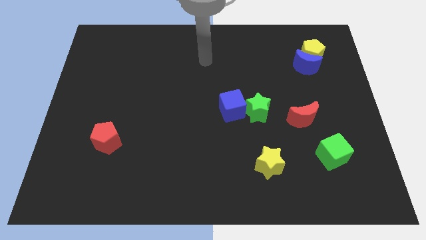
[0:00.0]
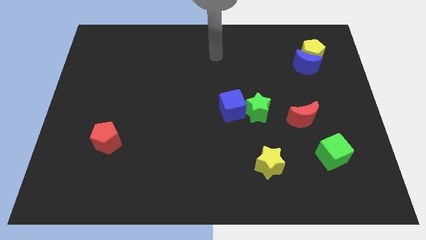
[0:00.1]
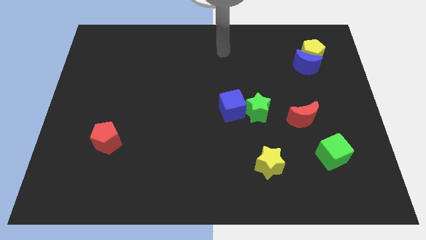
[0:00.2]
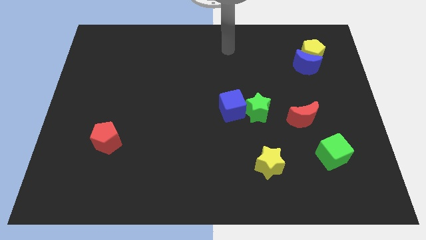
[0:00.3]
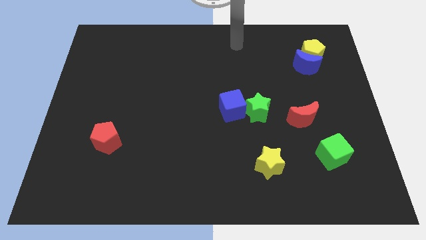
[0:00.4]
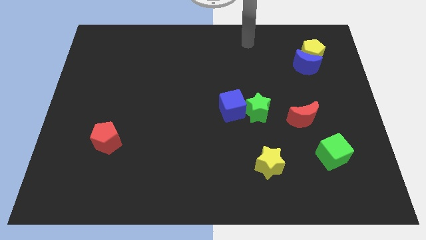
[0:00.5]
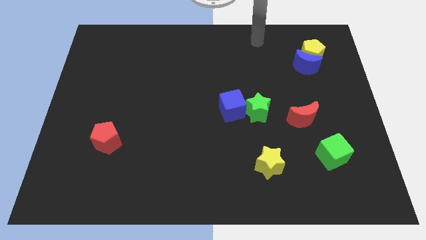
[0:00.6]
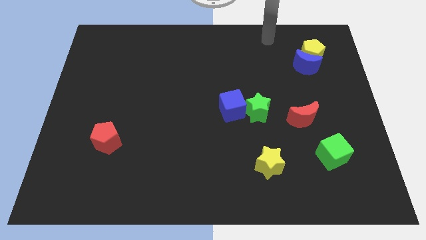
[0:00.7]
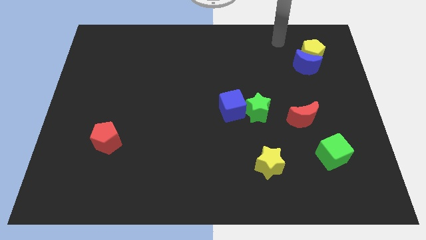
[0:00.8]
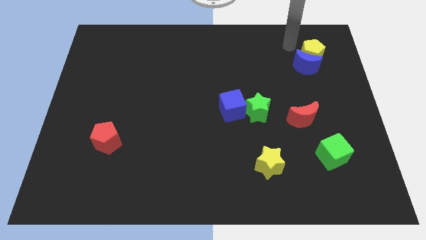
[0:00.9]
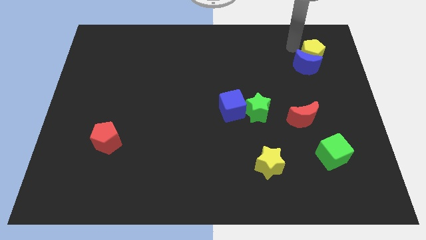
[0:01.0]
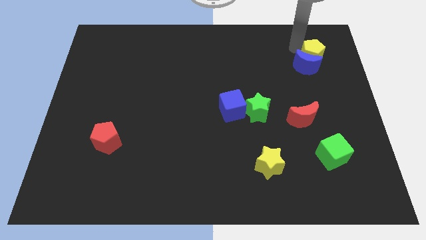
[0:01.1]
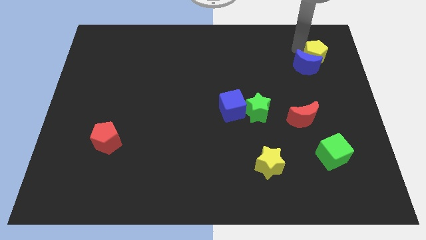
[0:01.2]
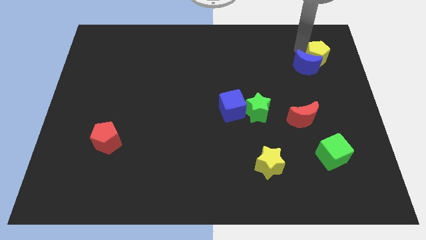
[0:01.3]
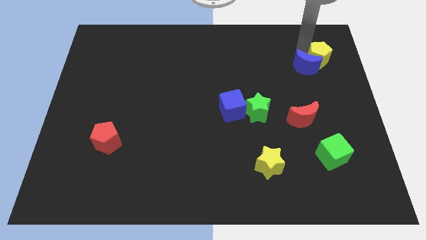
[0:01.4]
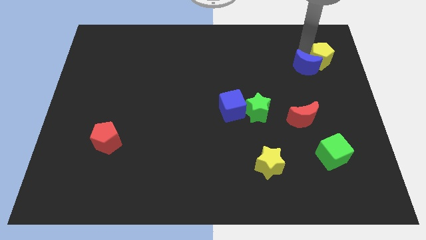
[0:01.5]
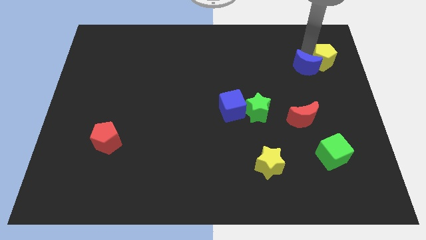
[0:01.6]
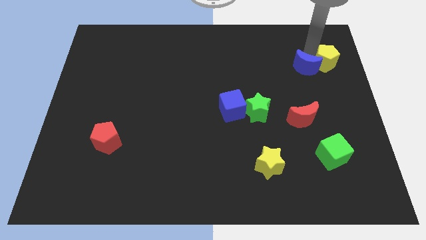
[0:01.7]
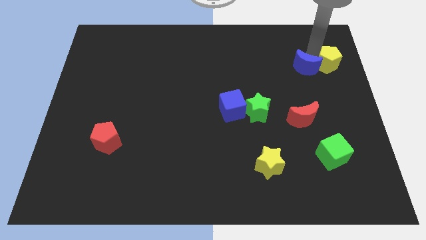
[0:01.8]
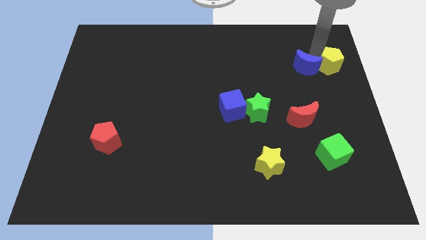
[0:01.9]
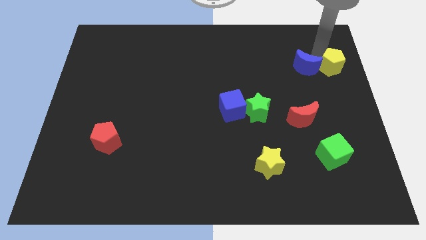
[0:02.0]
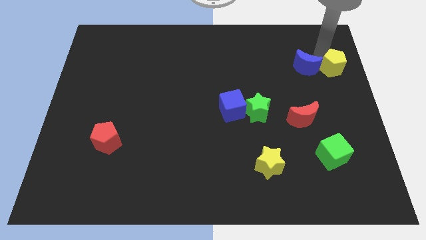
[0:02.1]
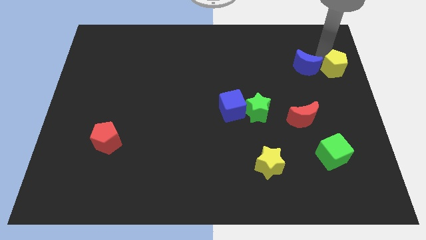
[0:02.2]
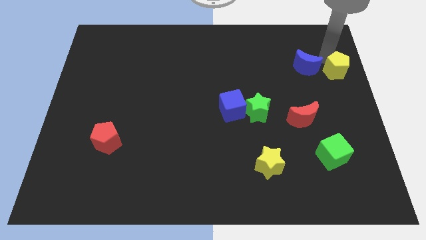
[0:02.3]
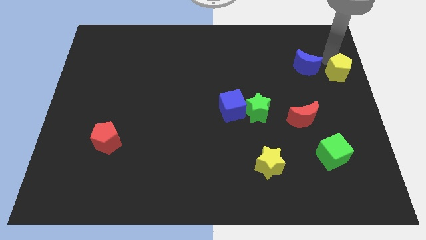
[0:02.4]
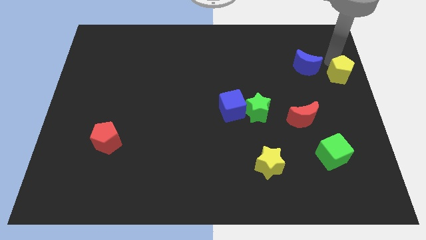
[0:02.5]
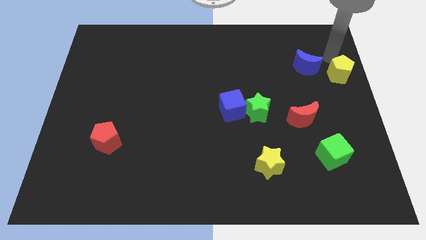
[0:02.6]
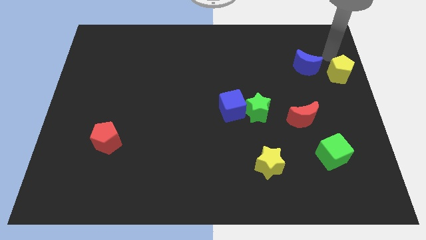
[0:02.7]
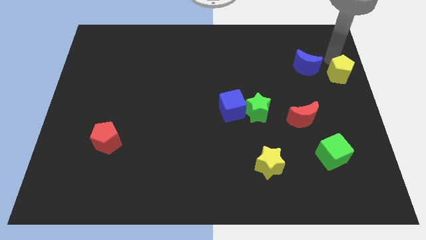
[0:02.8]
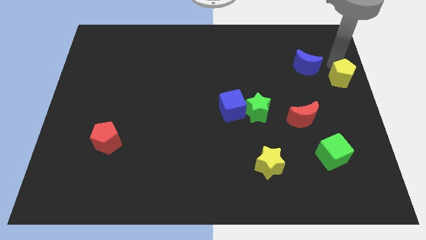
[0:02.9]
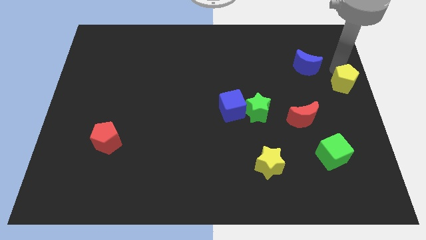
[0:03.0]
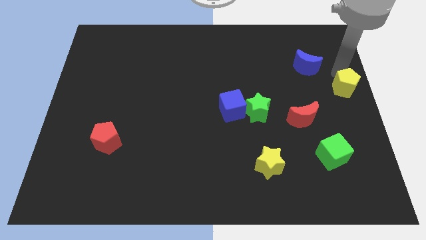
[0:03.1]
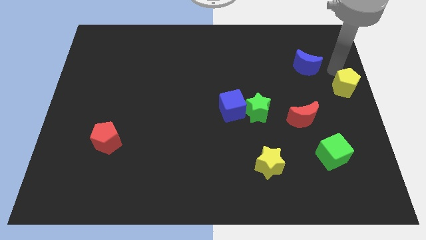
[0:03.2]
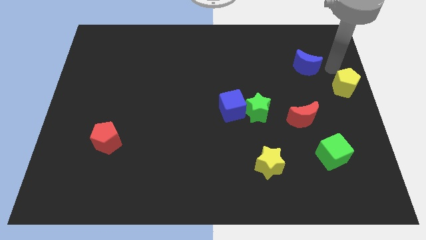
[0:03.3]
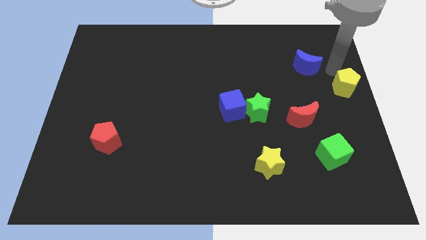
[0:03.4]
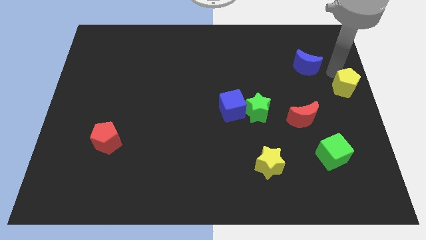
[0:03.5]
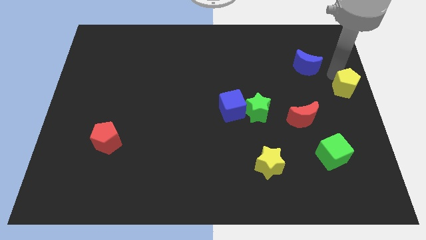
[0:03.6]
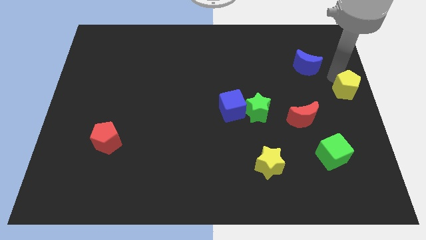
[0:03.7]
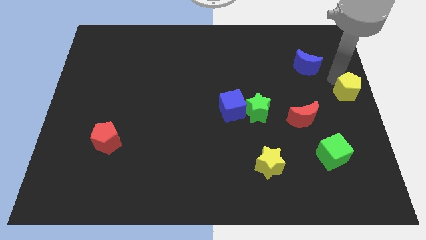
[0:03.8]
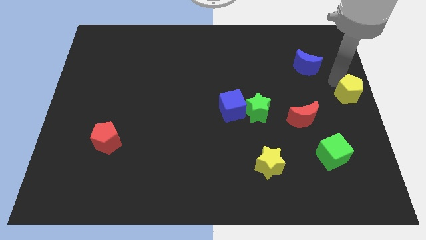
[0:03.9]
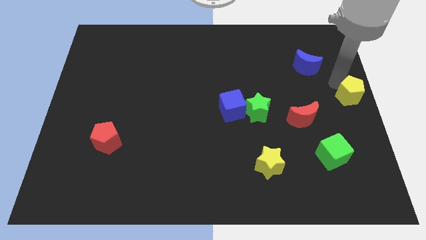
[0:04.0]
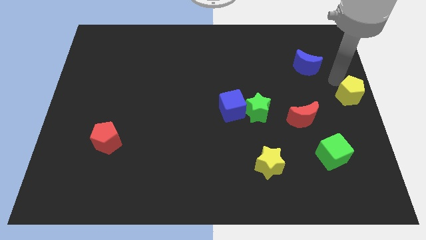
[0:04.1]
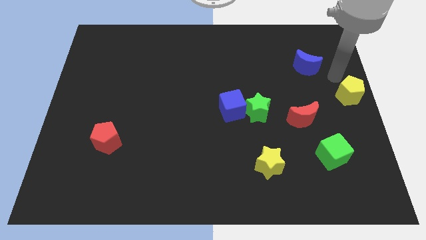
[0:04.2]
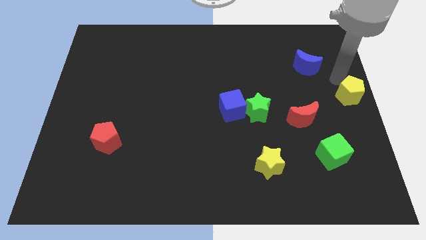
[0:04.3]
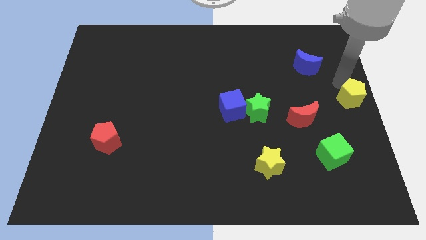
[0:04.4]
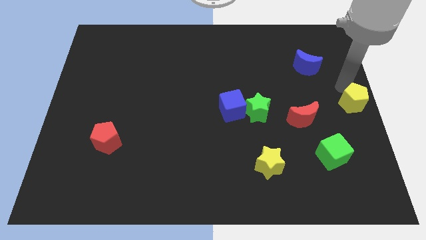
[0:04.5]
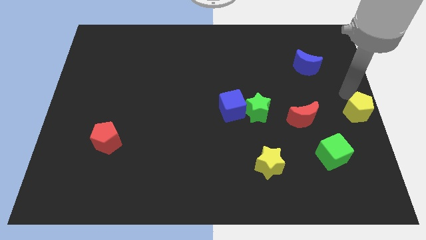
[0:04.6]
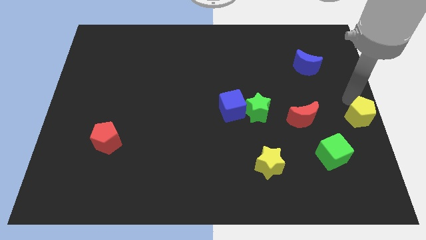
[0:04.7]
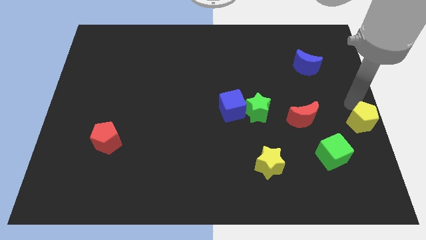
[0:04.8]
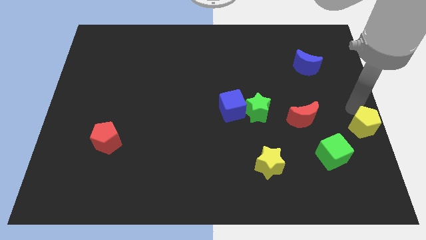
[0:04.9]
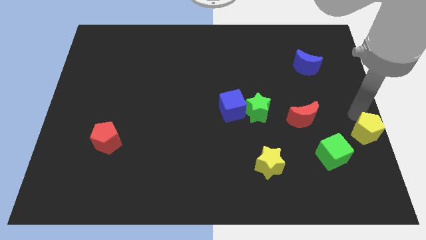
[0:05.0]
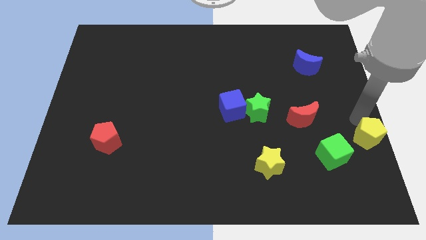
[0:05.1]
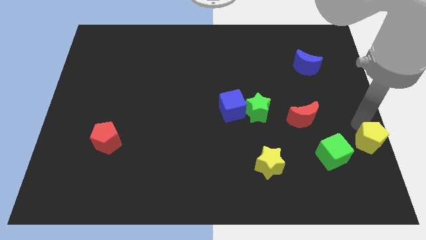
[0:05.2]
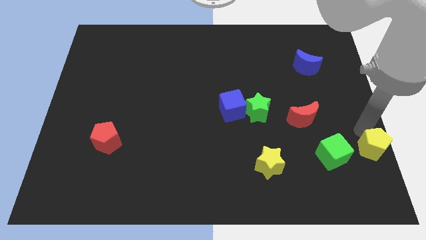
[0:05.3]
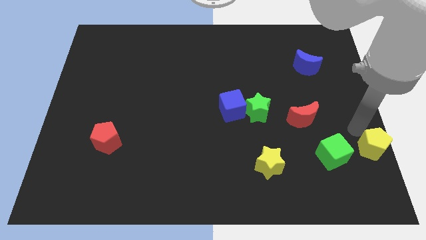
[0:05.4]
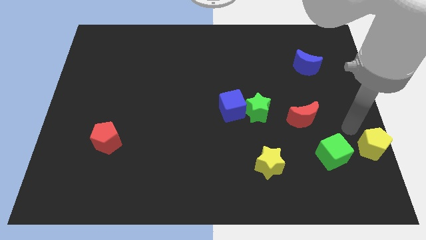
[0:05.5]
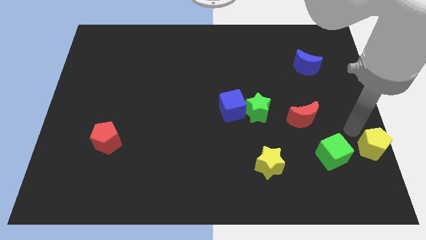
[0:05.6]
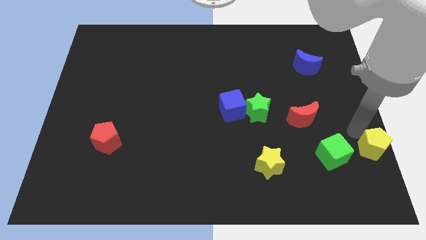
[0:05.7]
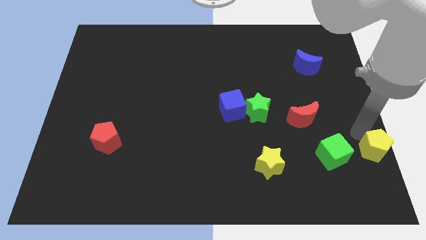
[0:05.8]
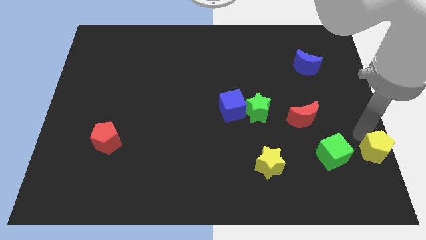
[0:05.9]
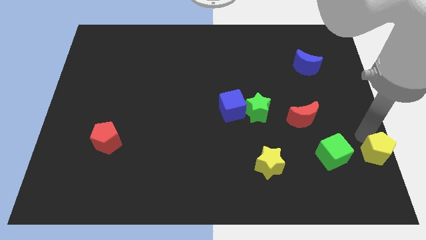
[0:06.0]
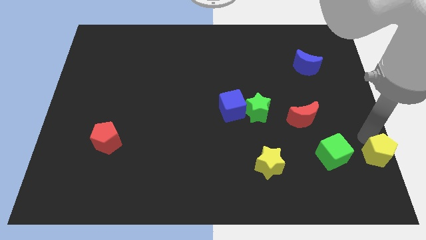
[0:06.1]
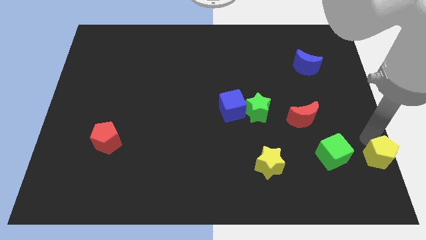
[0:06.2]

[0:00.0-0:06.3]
push the yellow pentagon to the bottom right corner

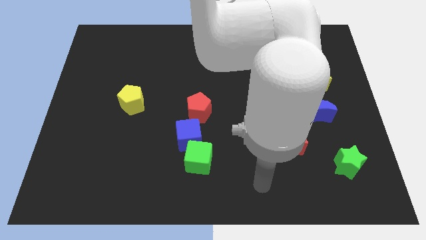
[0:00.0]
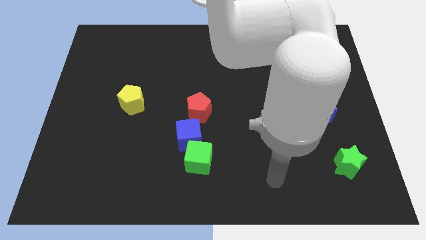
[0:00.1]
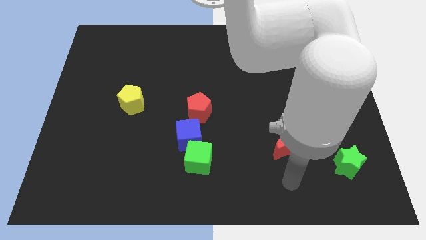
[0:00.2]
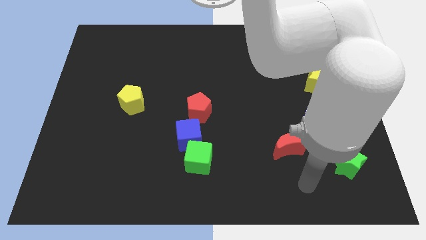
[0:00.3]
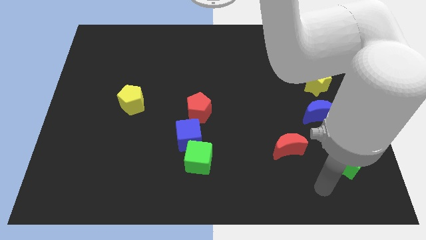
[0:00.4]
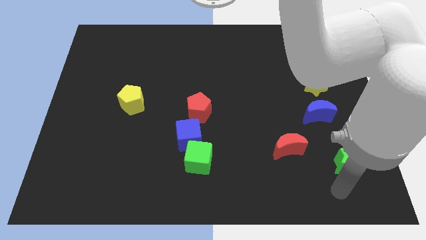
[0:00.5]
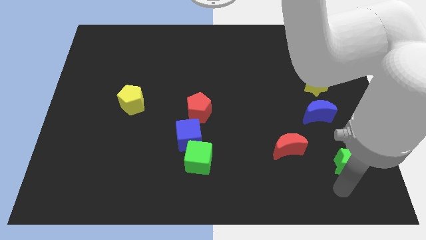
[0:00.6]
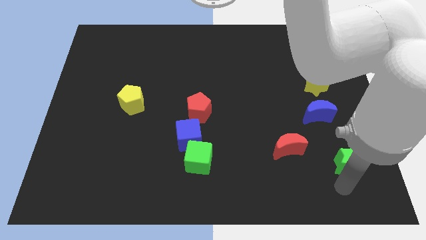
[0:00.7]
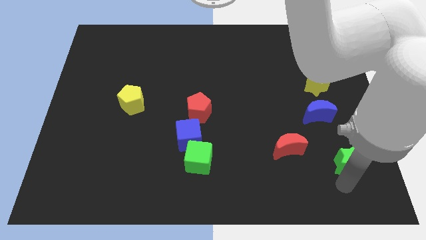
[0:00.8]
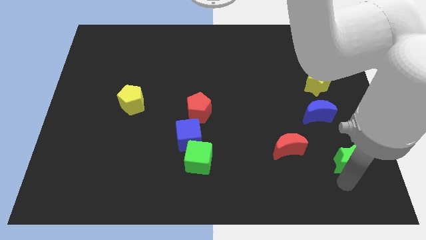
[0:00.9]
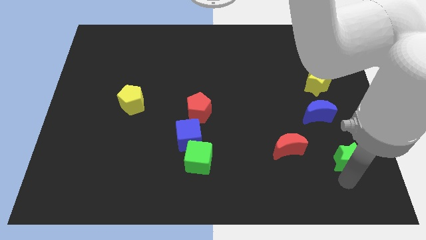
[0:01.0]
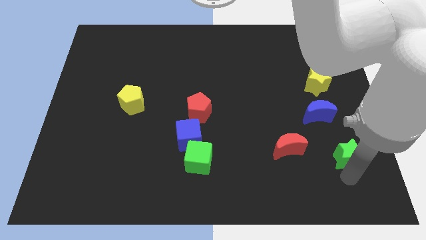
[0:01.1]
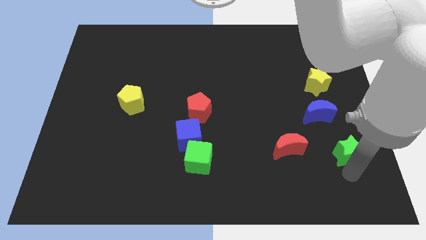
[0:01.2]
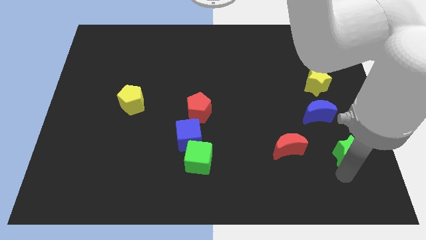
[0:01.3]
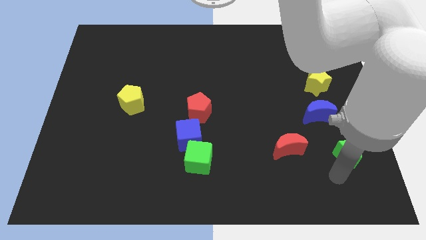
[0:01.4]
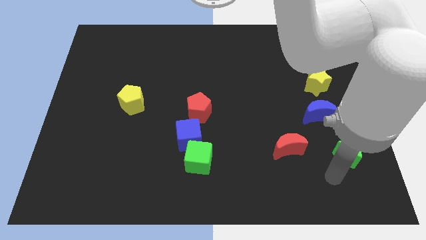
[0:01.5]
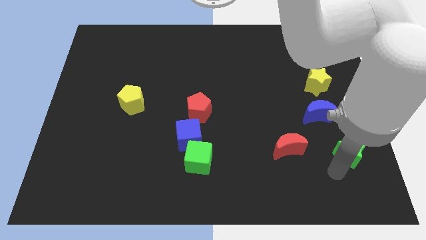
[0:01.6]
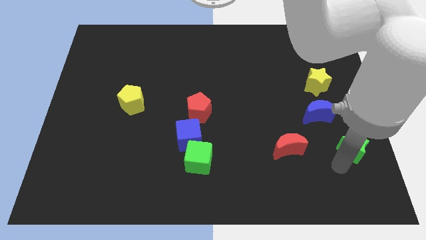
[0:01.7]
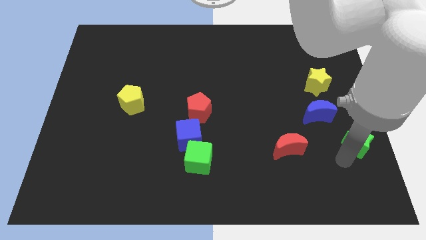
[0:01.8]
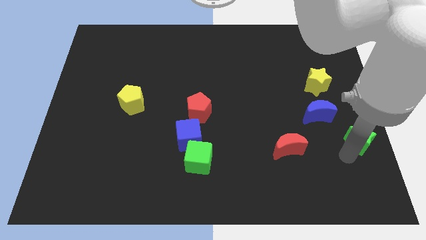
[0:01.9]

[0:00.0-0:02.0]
push the green star to the right side
